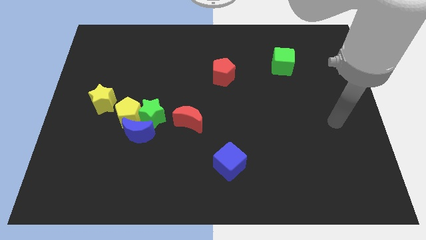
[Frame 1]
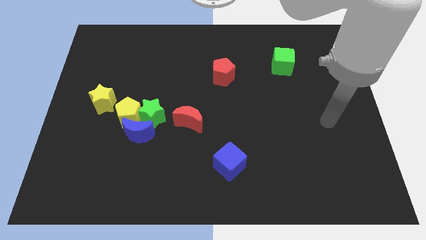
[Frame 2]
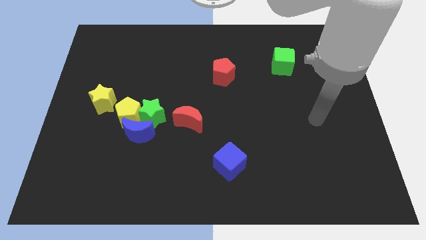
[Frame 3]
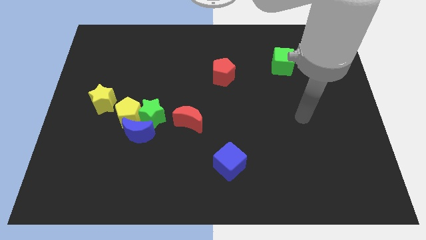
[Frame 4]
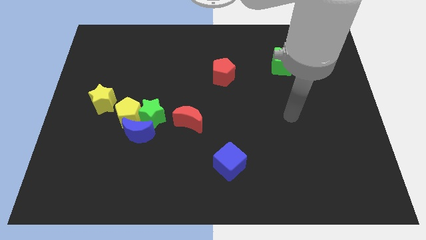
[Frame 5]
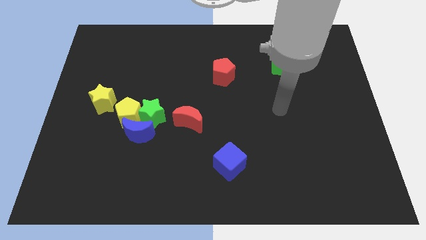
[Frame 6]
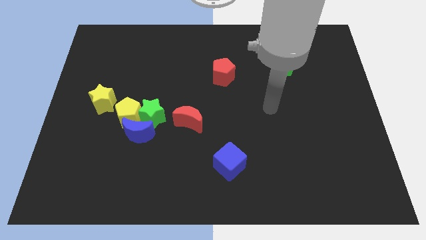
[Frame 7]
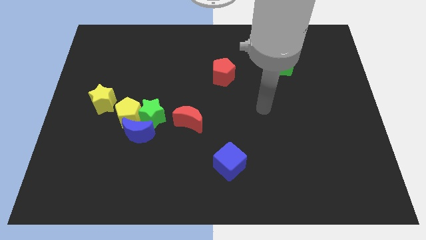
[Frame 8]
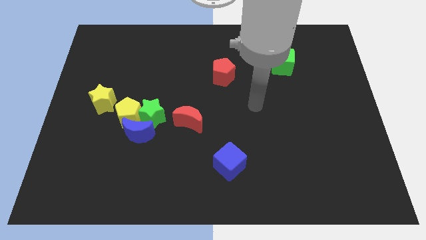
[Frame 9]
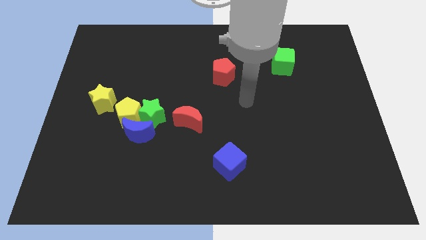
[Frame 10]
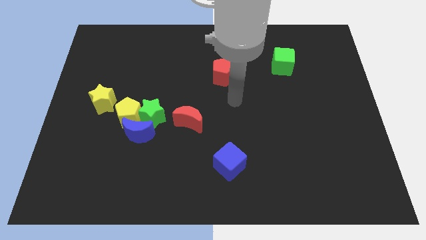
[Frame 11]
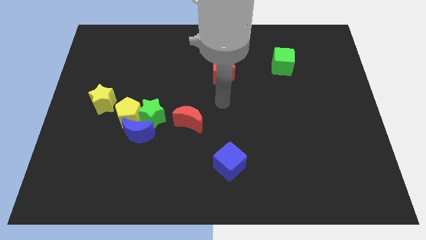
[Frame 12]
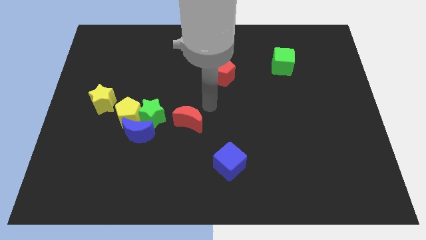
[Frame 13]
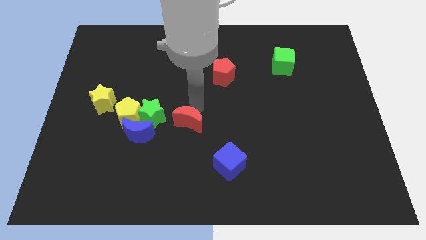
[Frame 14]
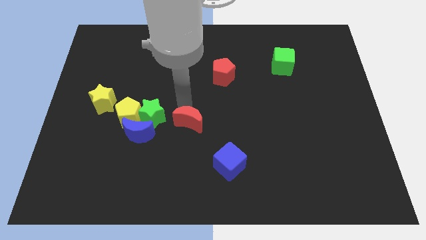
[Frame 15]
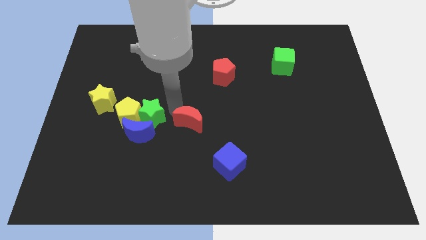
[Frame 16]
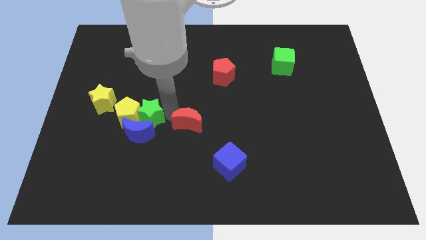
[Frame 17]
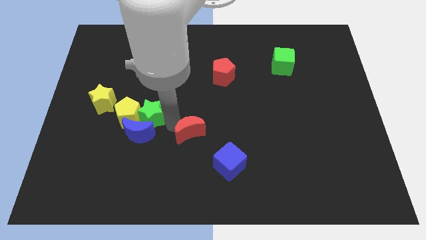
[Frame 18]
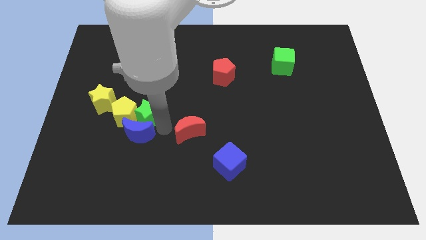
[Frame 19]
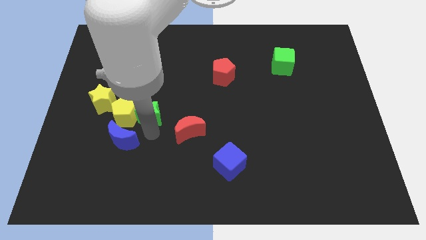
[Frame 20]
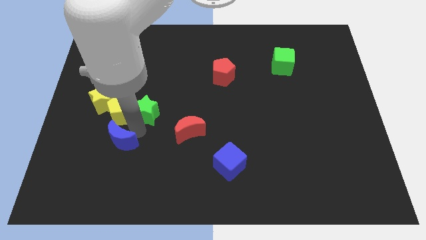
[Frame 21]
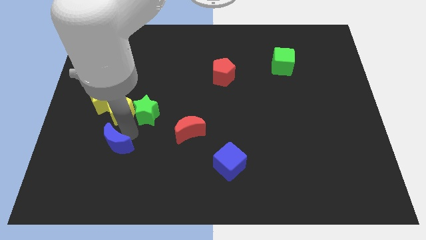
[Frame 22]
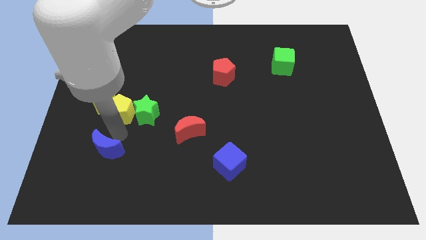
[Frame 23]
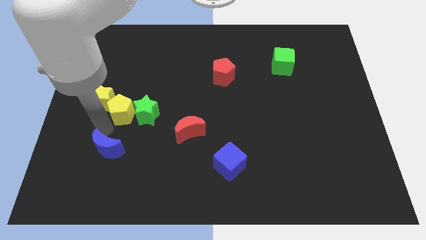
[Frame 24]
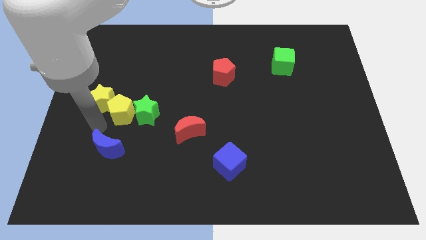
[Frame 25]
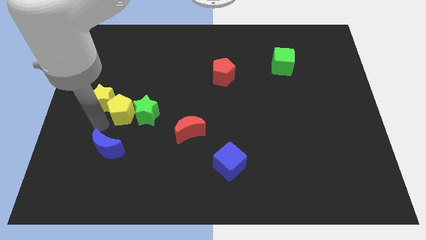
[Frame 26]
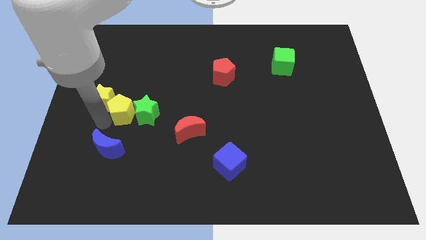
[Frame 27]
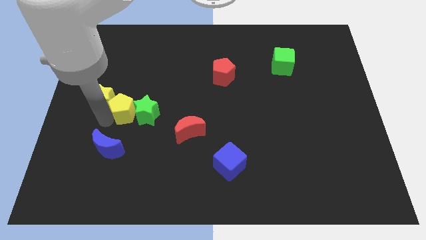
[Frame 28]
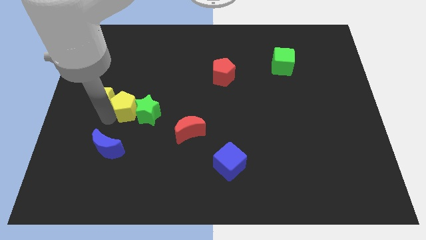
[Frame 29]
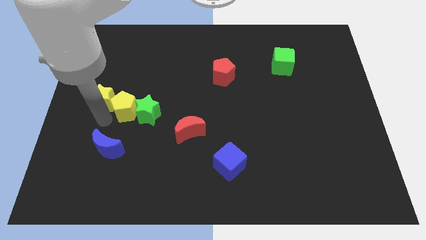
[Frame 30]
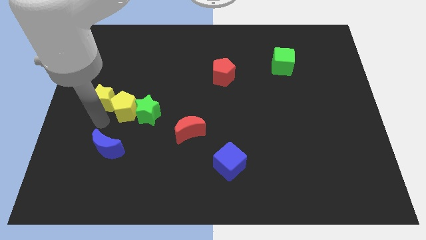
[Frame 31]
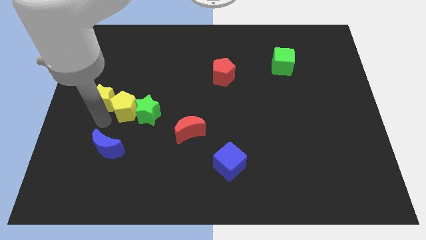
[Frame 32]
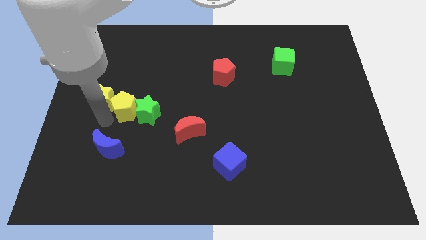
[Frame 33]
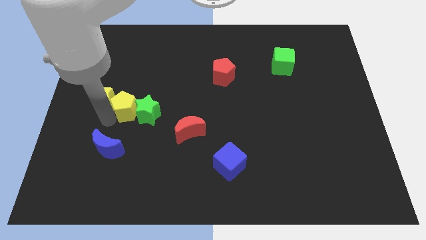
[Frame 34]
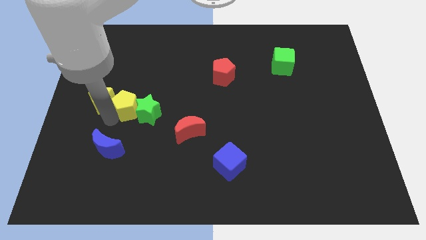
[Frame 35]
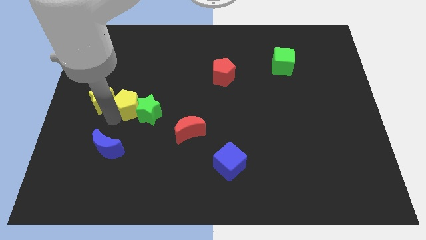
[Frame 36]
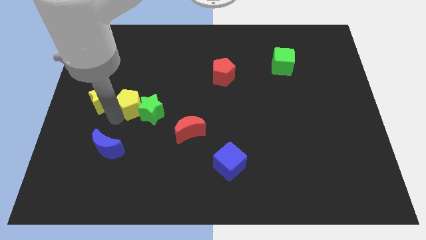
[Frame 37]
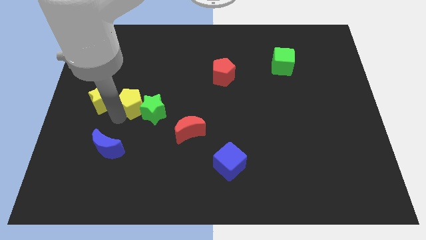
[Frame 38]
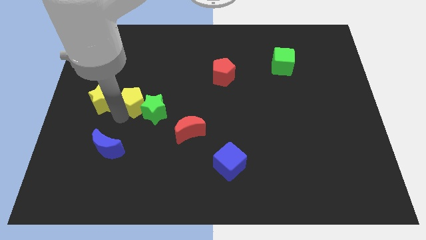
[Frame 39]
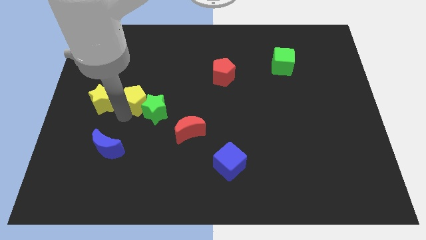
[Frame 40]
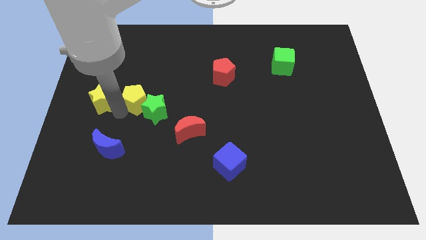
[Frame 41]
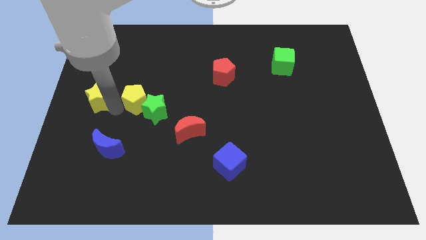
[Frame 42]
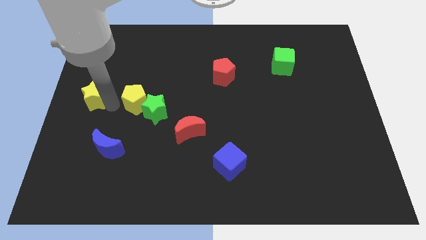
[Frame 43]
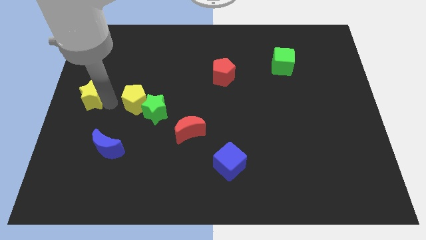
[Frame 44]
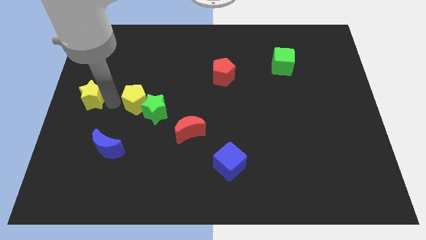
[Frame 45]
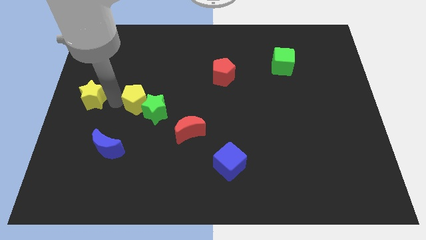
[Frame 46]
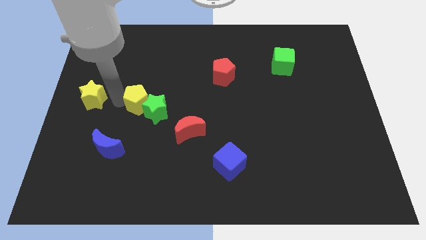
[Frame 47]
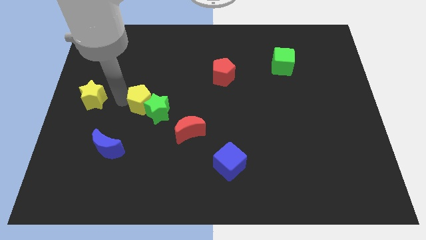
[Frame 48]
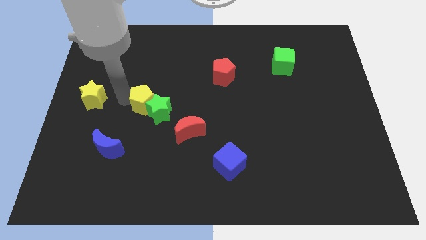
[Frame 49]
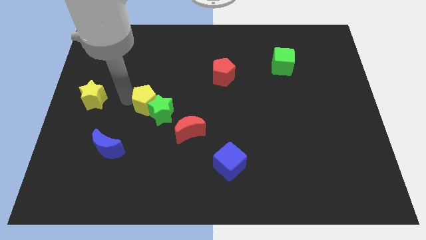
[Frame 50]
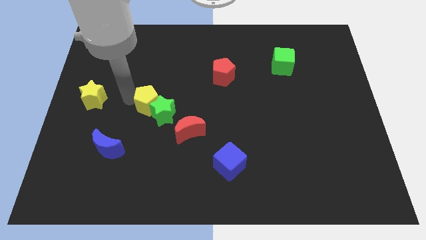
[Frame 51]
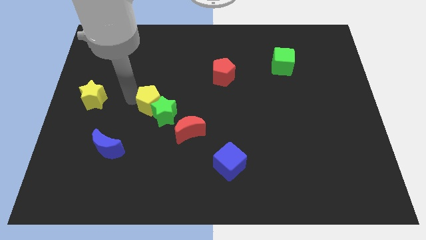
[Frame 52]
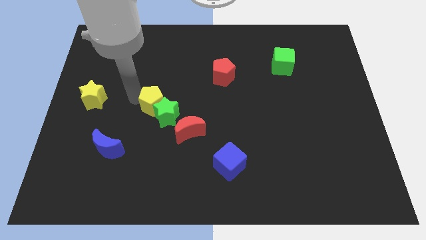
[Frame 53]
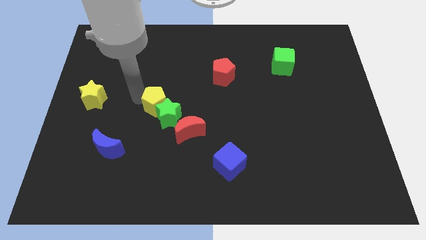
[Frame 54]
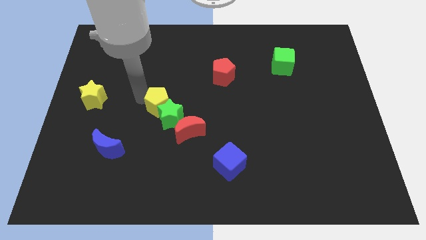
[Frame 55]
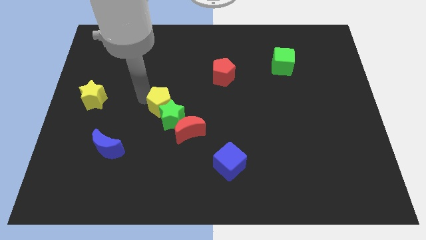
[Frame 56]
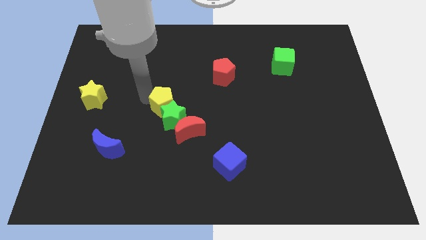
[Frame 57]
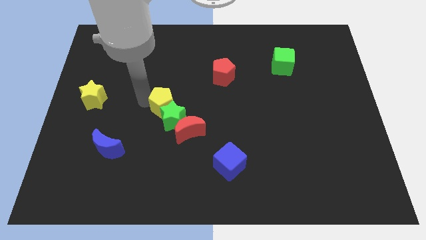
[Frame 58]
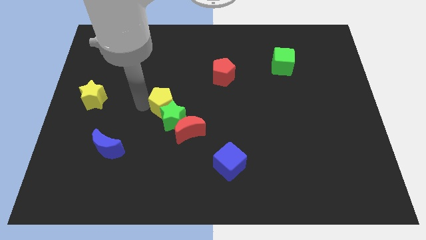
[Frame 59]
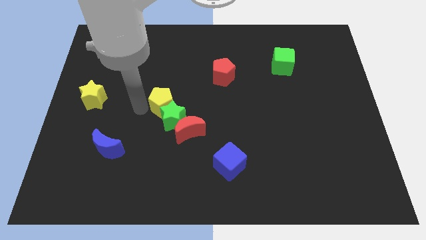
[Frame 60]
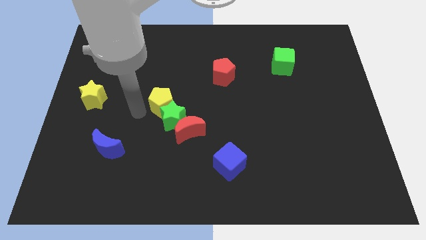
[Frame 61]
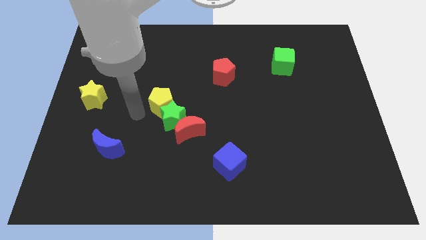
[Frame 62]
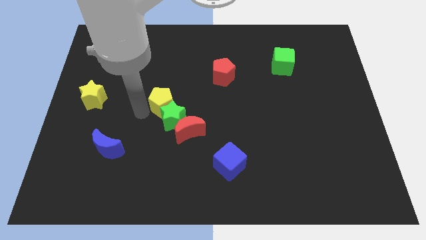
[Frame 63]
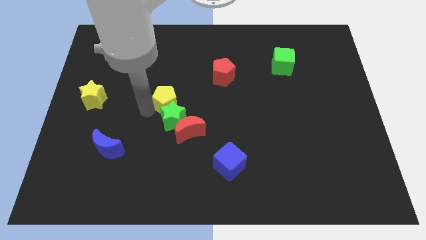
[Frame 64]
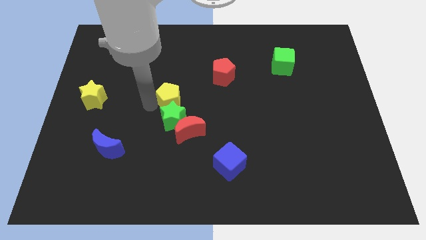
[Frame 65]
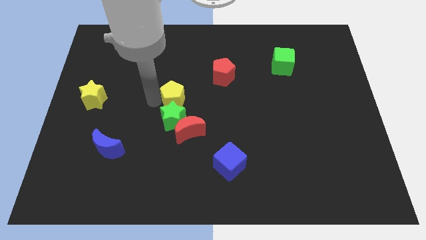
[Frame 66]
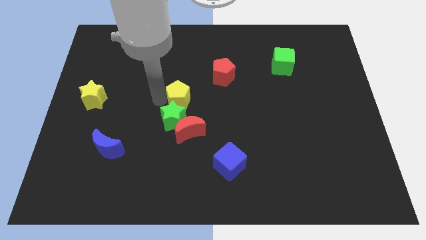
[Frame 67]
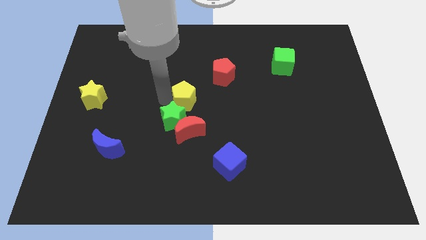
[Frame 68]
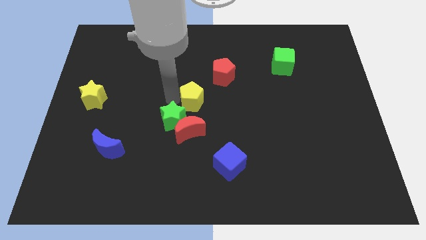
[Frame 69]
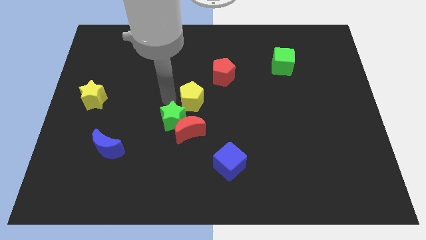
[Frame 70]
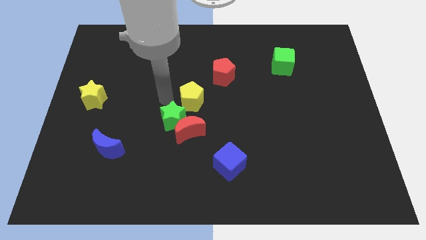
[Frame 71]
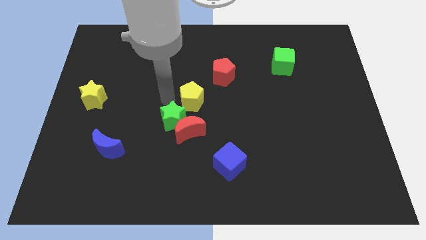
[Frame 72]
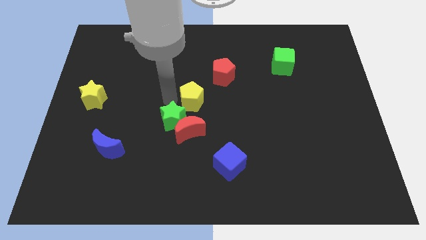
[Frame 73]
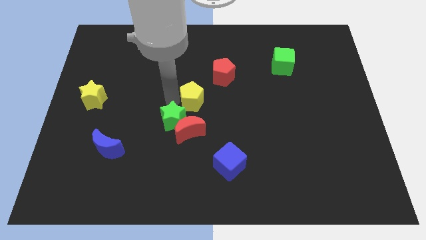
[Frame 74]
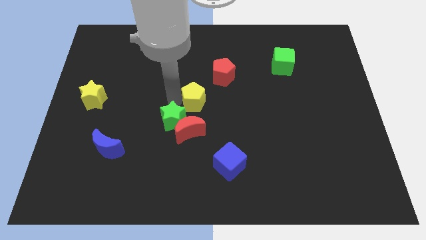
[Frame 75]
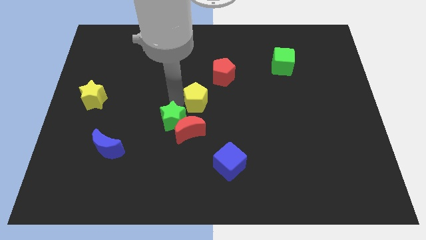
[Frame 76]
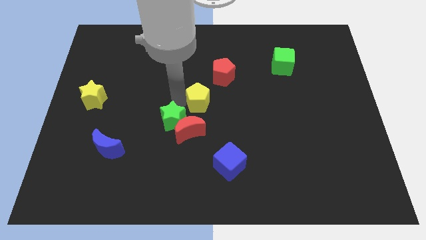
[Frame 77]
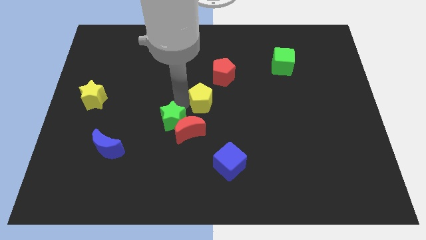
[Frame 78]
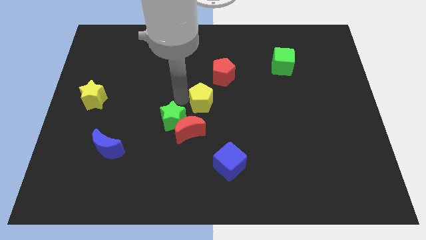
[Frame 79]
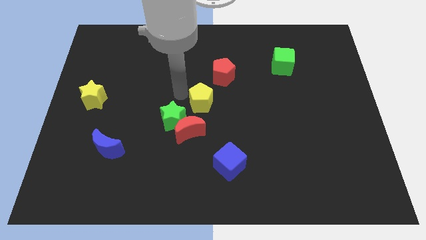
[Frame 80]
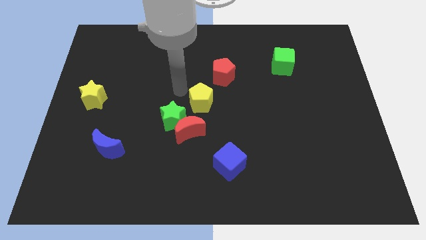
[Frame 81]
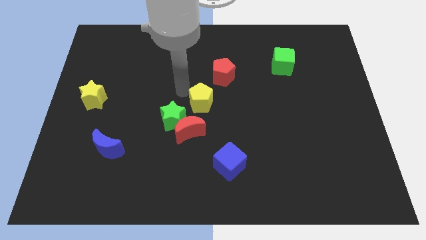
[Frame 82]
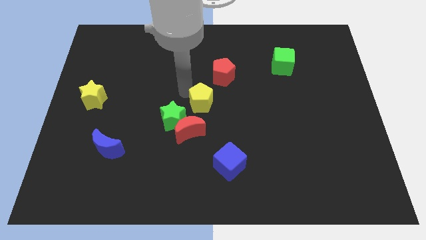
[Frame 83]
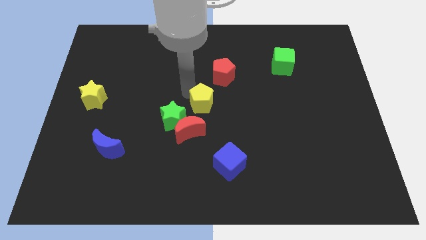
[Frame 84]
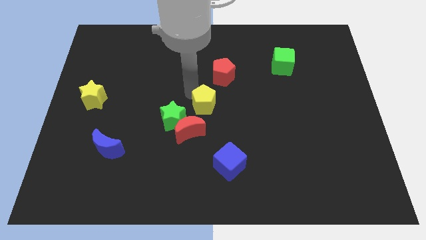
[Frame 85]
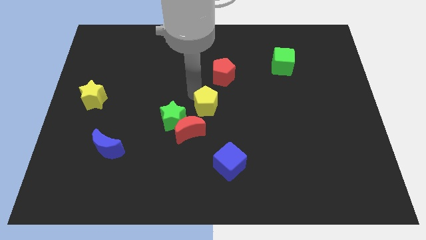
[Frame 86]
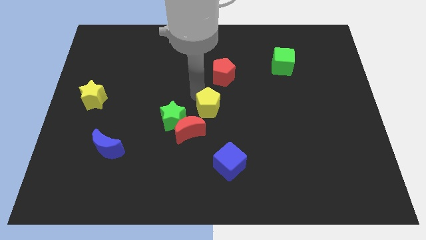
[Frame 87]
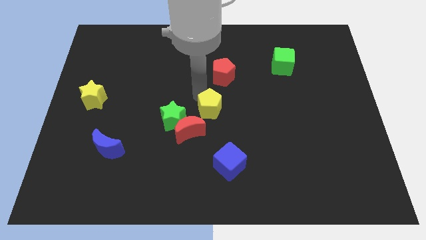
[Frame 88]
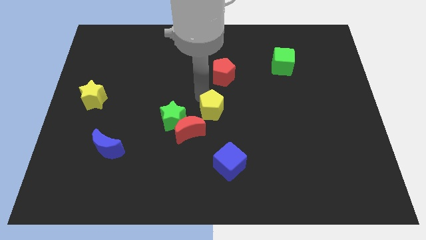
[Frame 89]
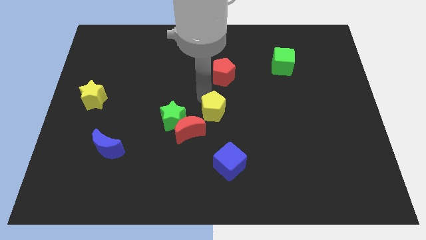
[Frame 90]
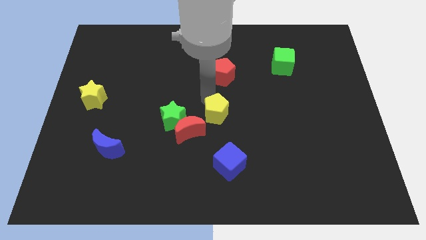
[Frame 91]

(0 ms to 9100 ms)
slide the yellow pentagon to the right
